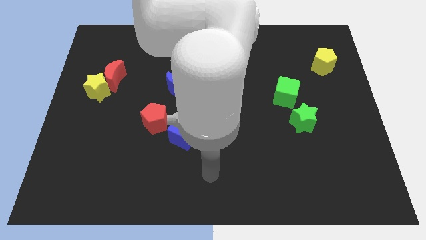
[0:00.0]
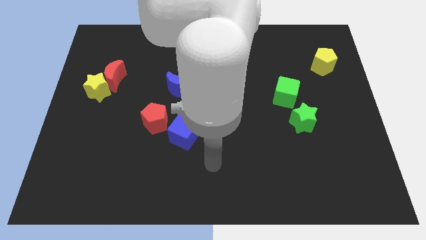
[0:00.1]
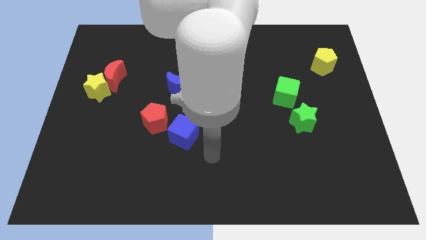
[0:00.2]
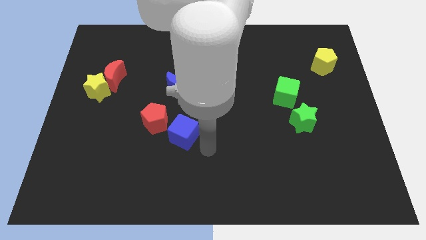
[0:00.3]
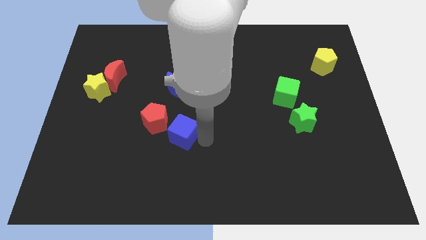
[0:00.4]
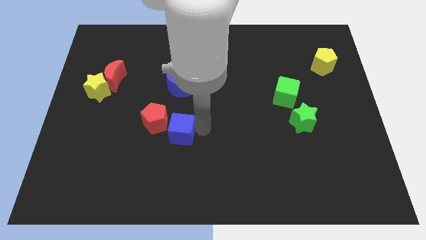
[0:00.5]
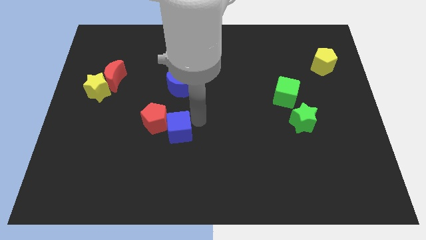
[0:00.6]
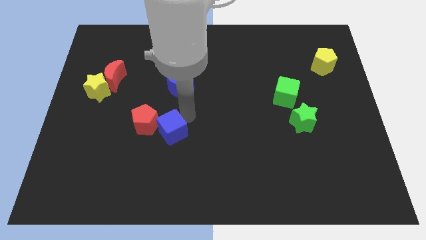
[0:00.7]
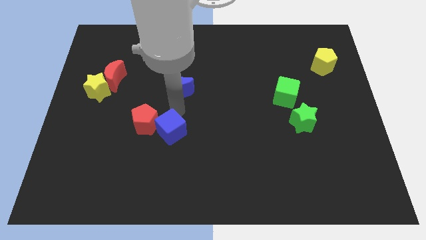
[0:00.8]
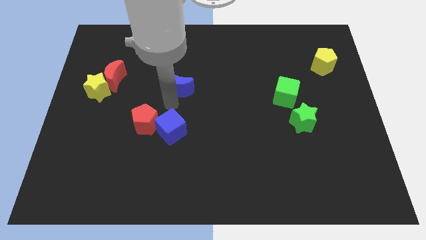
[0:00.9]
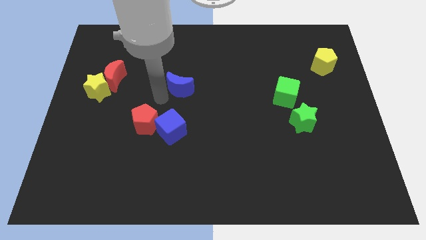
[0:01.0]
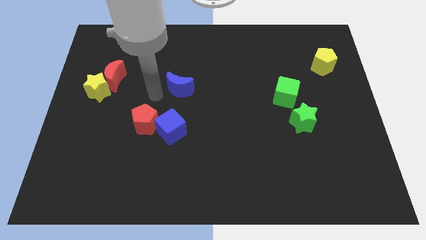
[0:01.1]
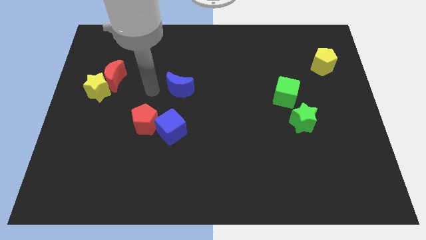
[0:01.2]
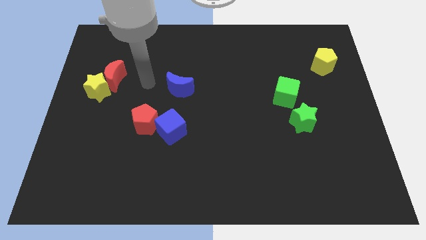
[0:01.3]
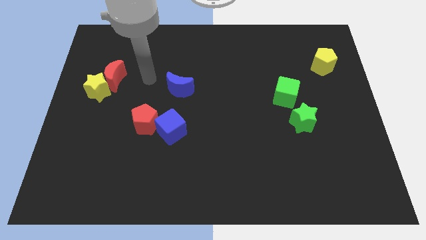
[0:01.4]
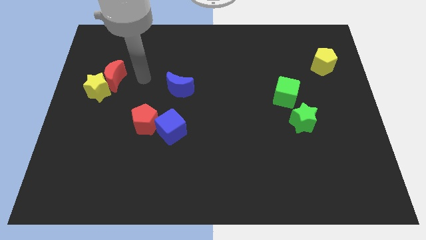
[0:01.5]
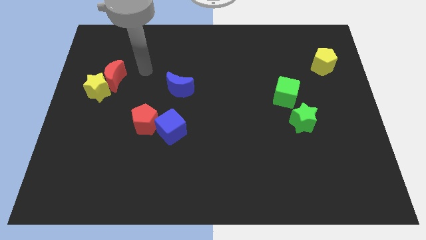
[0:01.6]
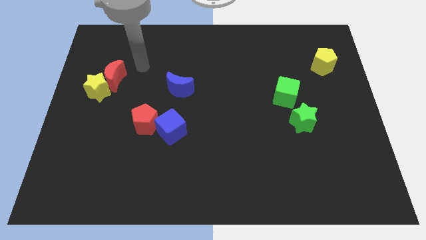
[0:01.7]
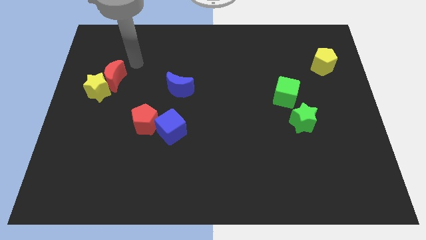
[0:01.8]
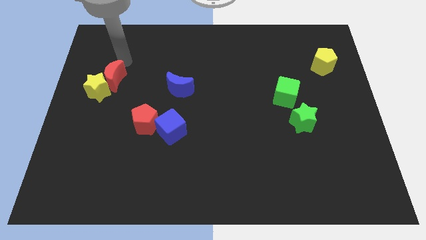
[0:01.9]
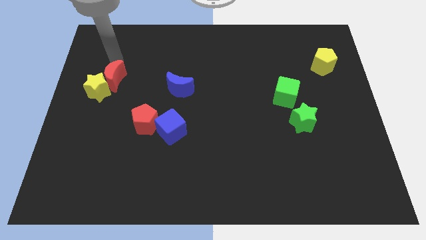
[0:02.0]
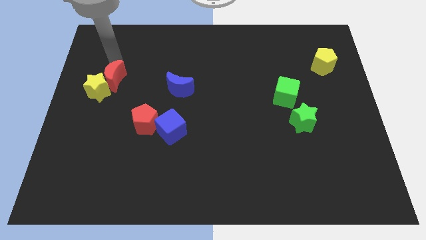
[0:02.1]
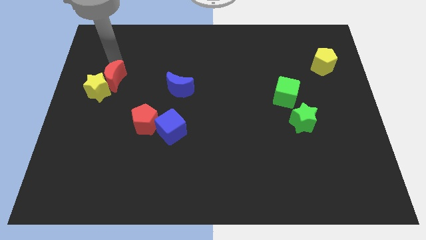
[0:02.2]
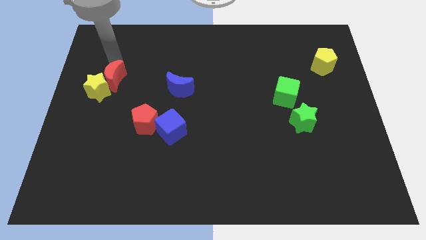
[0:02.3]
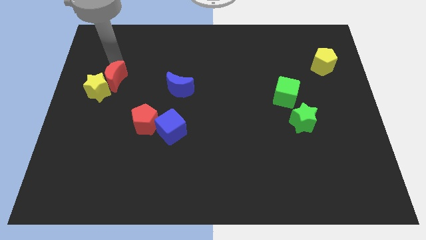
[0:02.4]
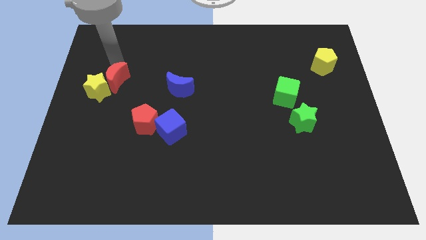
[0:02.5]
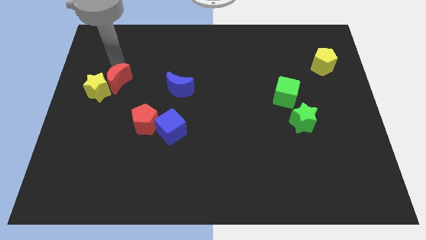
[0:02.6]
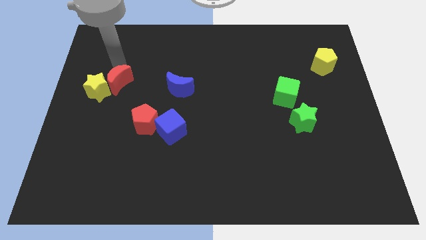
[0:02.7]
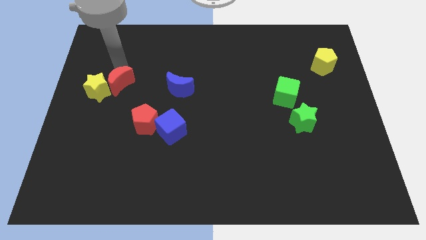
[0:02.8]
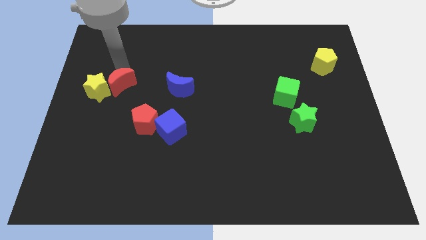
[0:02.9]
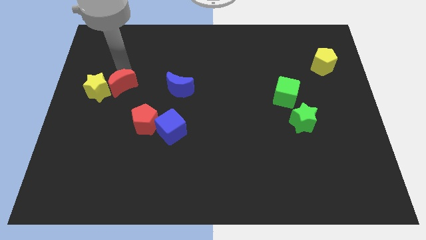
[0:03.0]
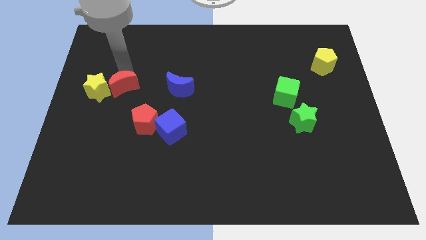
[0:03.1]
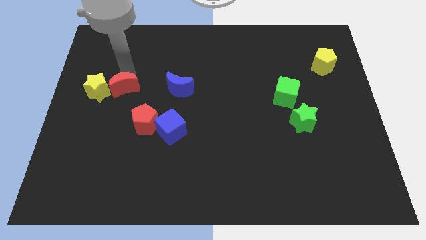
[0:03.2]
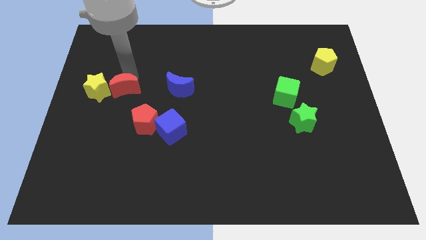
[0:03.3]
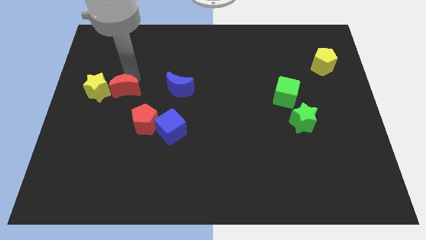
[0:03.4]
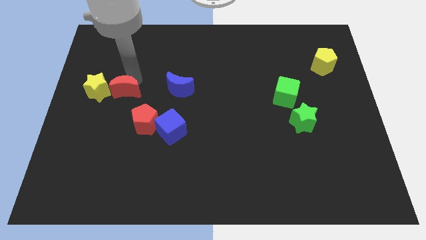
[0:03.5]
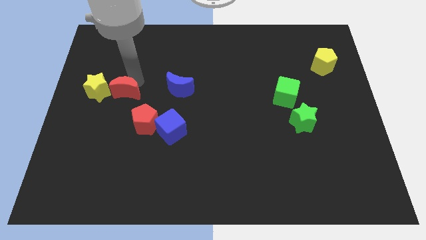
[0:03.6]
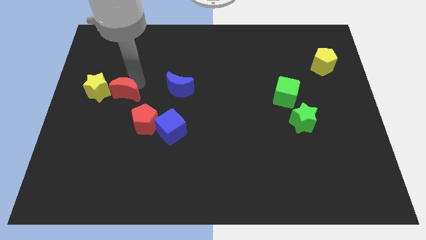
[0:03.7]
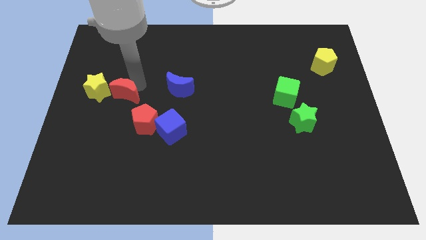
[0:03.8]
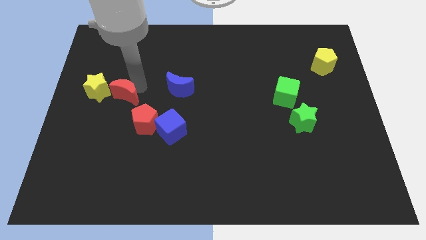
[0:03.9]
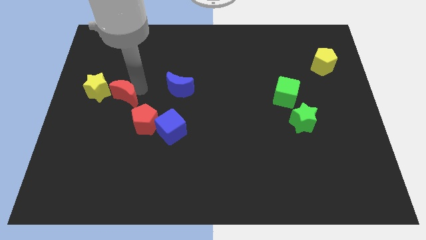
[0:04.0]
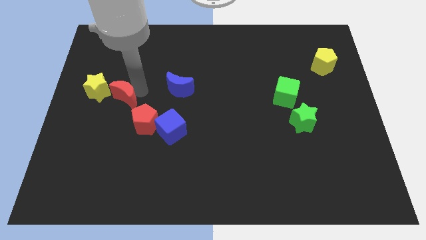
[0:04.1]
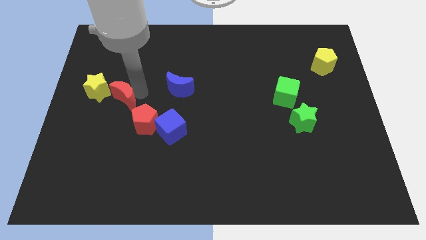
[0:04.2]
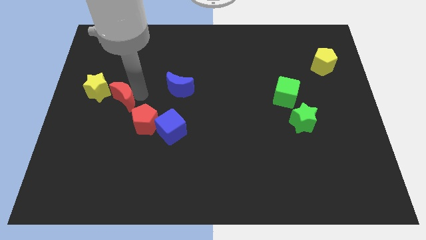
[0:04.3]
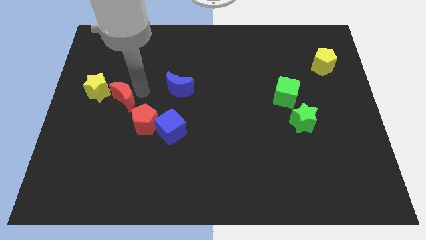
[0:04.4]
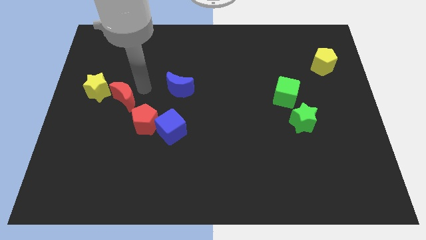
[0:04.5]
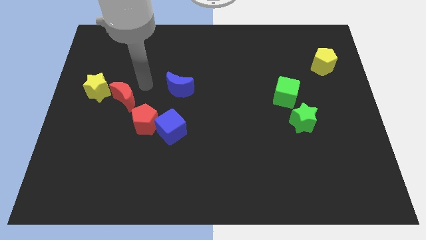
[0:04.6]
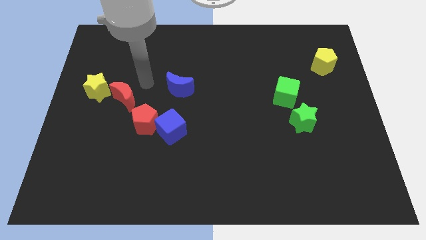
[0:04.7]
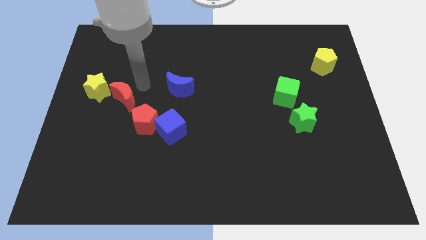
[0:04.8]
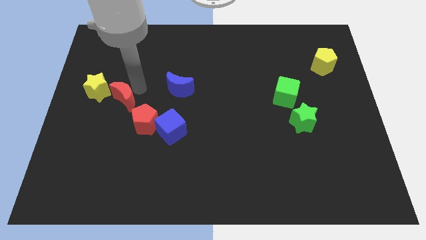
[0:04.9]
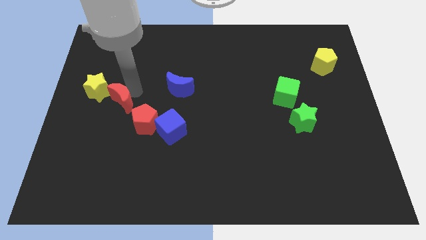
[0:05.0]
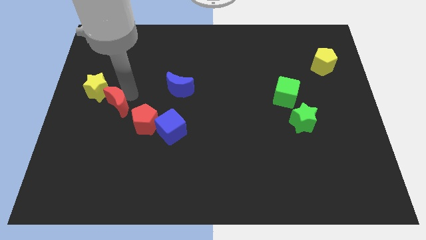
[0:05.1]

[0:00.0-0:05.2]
move the red moon a little bit down

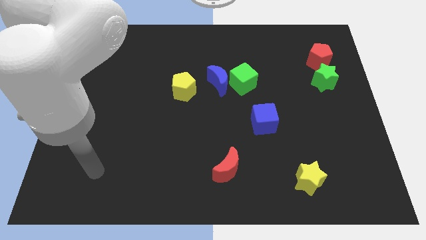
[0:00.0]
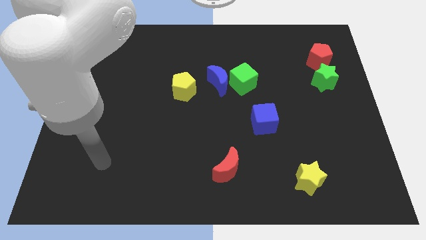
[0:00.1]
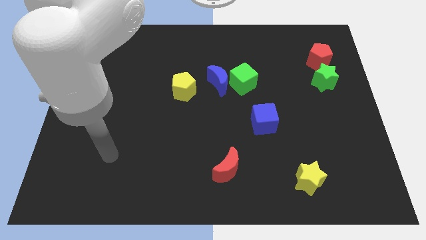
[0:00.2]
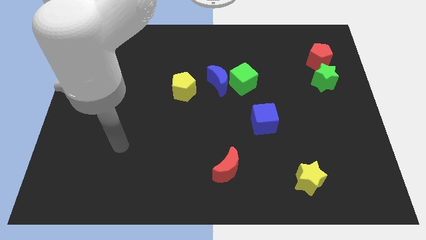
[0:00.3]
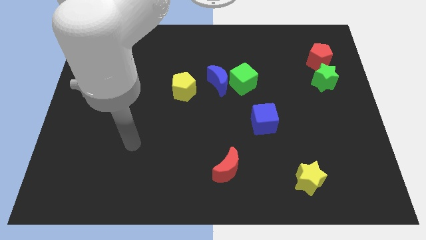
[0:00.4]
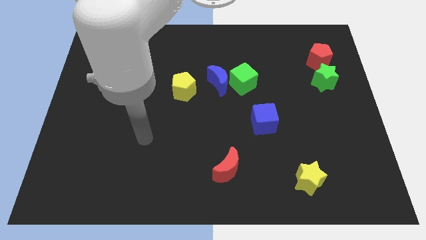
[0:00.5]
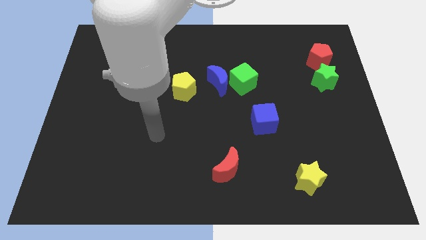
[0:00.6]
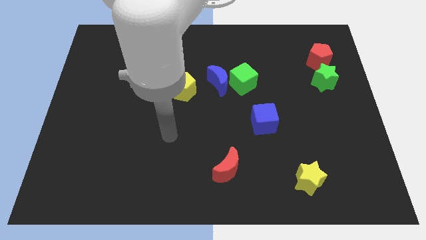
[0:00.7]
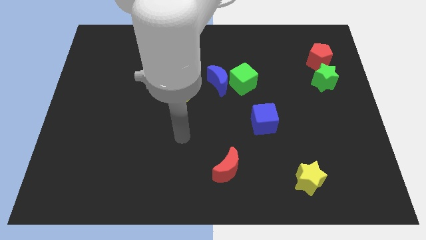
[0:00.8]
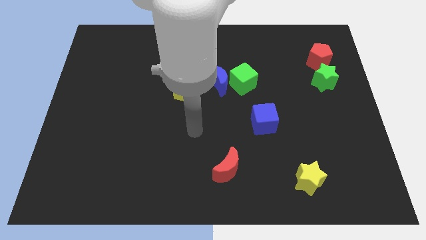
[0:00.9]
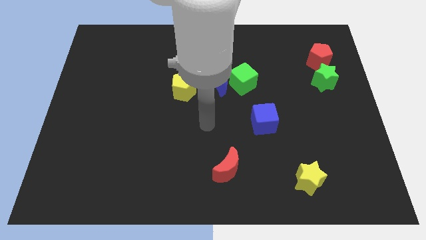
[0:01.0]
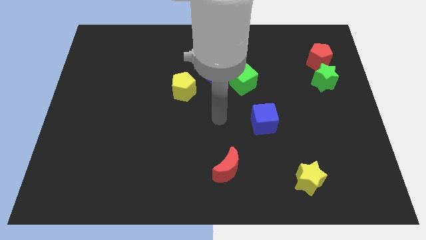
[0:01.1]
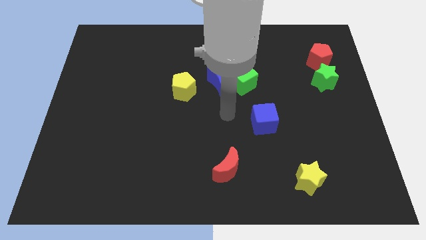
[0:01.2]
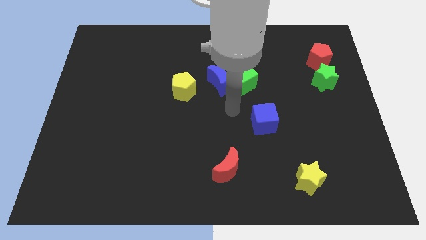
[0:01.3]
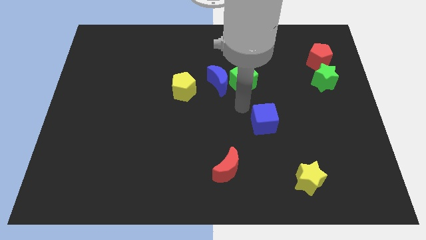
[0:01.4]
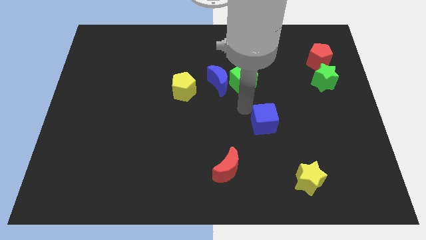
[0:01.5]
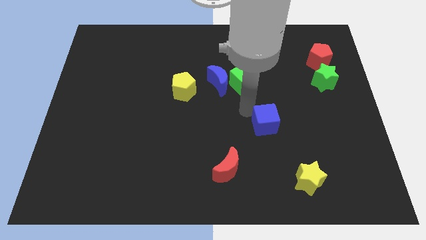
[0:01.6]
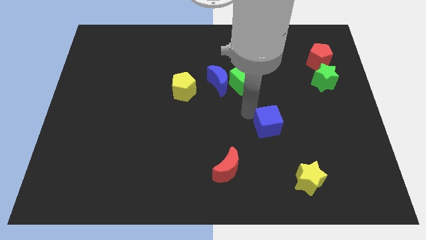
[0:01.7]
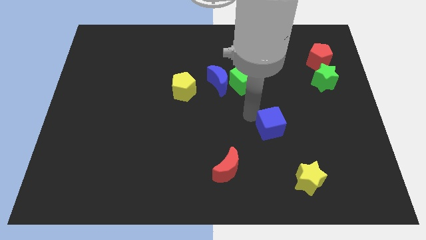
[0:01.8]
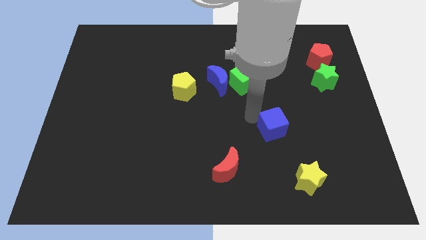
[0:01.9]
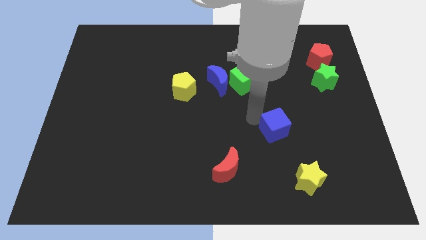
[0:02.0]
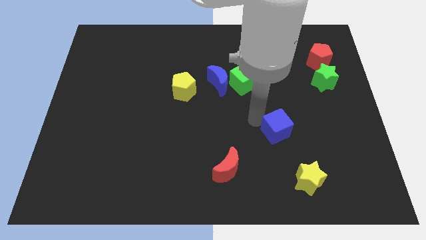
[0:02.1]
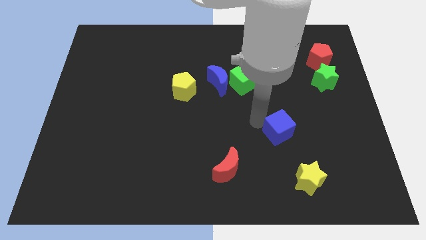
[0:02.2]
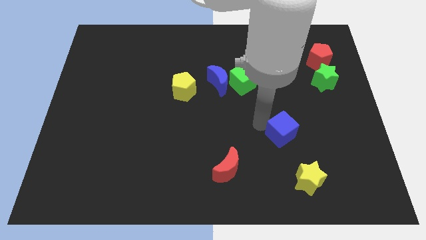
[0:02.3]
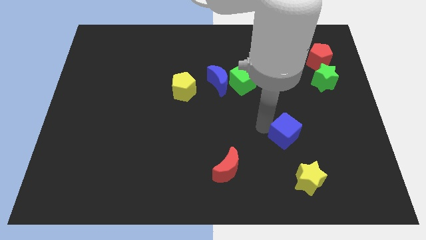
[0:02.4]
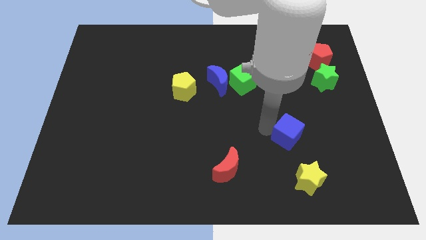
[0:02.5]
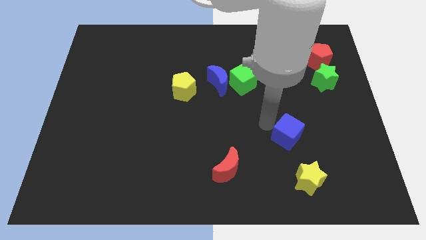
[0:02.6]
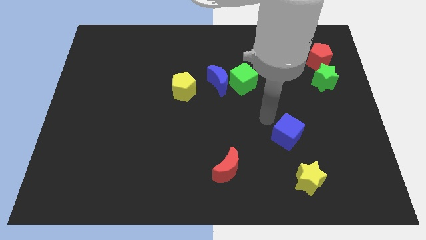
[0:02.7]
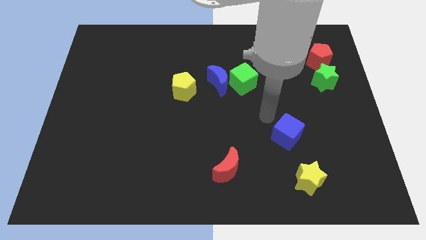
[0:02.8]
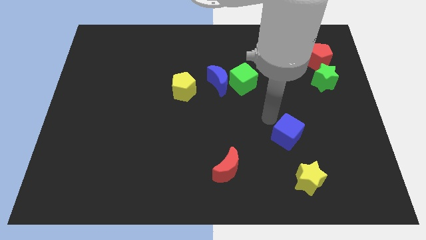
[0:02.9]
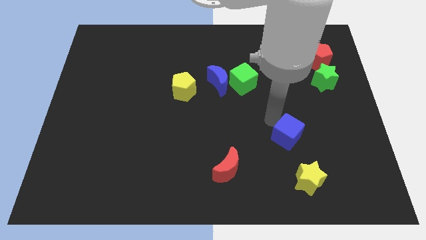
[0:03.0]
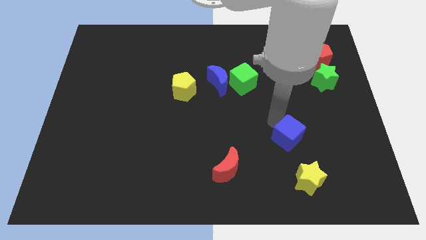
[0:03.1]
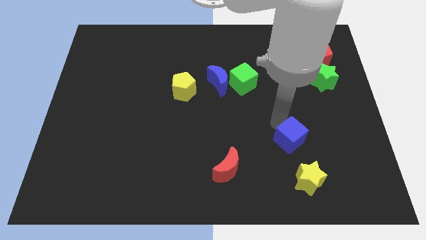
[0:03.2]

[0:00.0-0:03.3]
move the blue cube a little bit downwards and to the right
